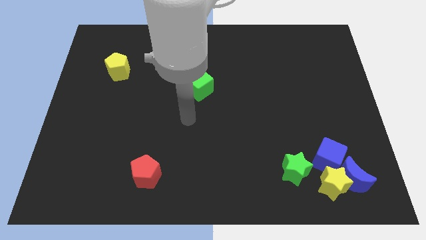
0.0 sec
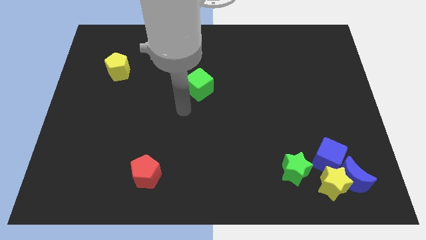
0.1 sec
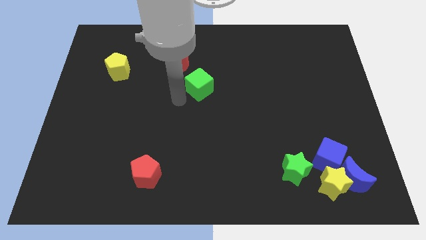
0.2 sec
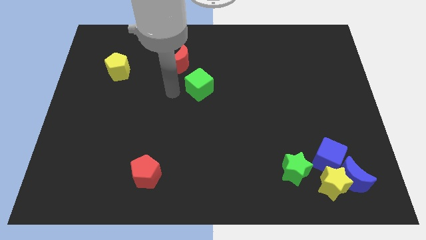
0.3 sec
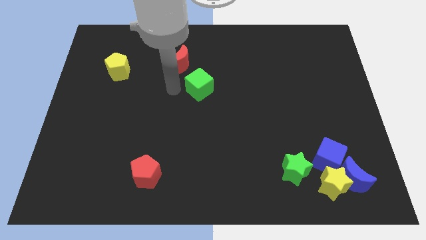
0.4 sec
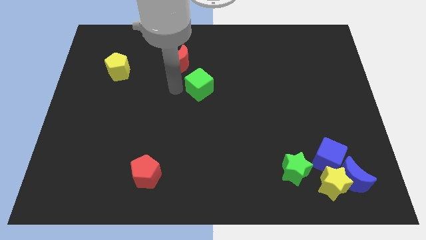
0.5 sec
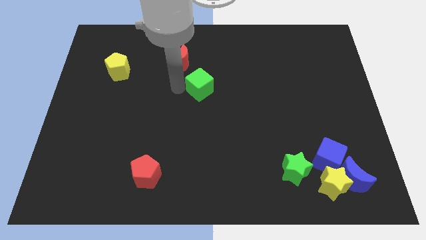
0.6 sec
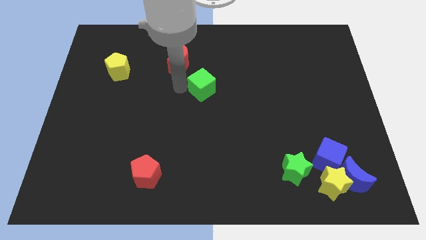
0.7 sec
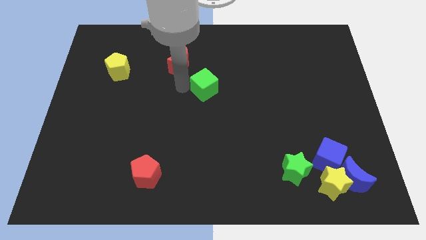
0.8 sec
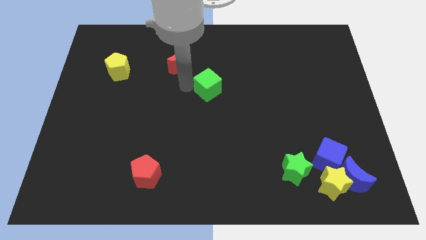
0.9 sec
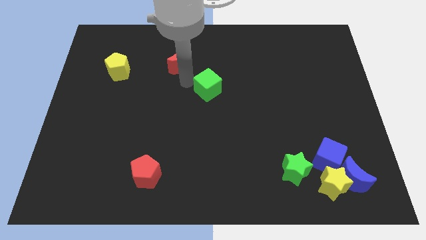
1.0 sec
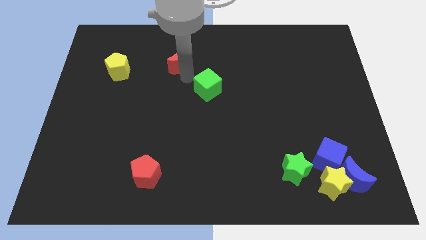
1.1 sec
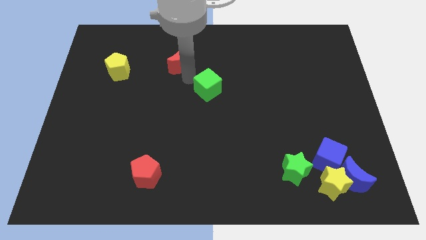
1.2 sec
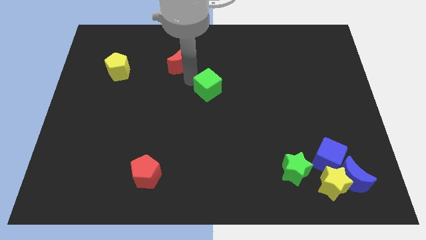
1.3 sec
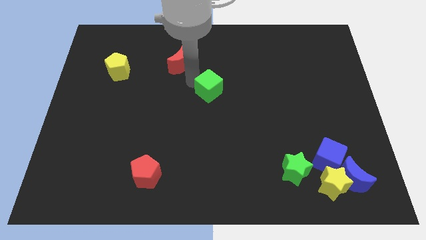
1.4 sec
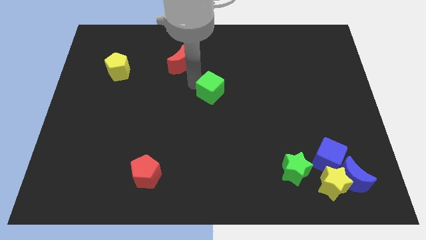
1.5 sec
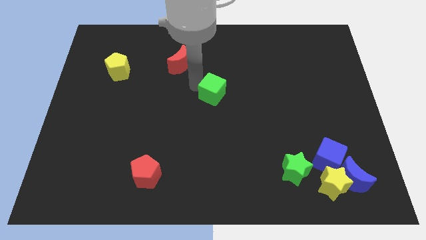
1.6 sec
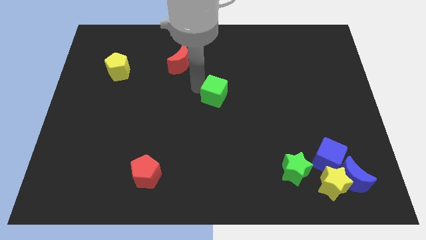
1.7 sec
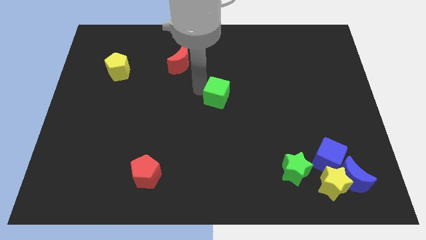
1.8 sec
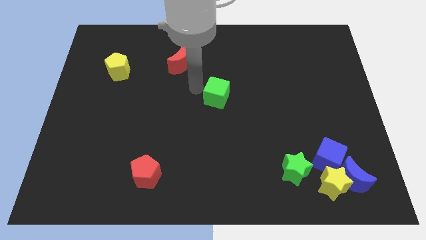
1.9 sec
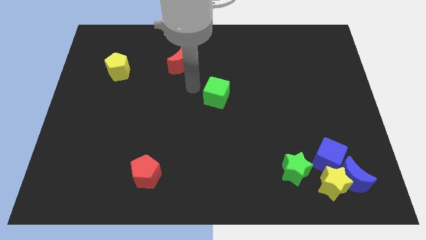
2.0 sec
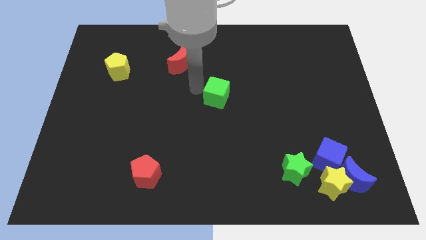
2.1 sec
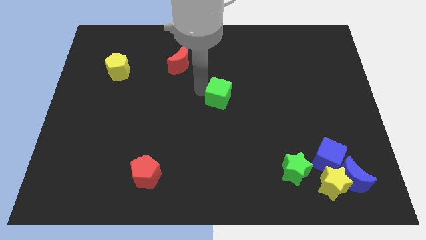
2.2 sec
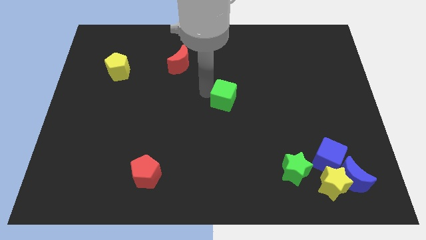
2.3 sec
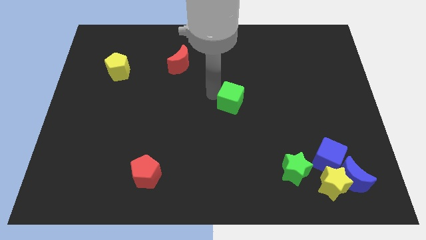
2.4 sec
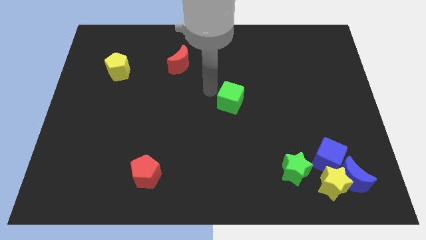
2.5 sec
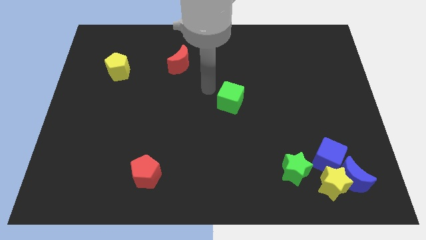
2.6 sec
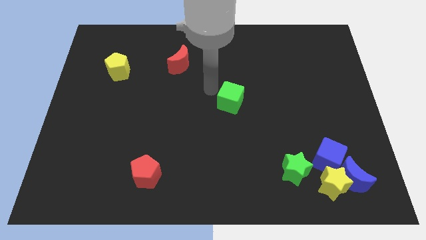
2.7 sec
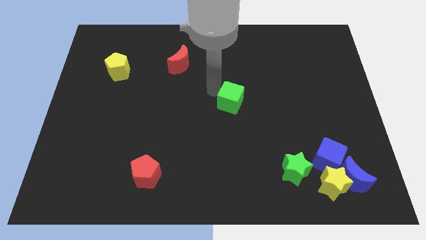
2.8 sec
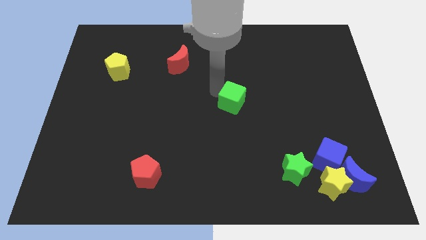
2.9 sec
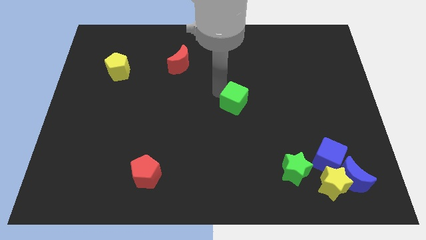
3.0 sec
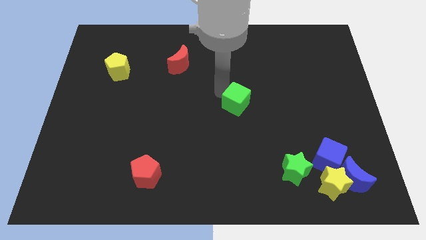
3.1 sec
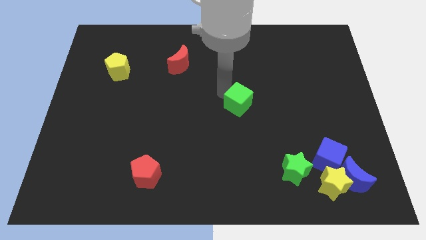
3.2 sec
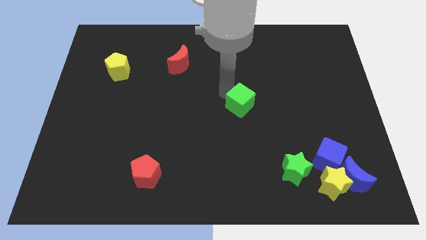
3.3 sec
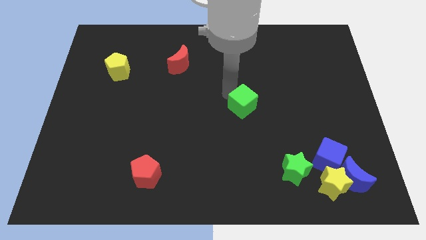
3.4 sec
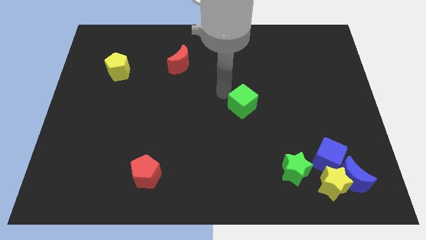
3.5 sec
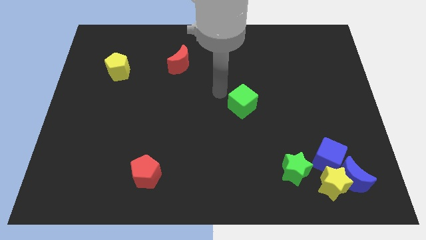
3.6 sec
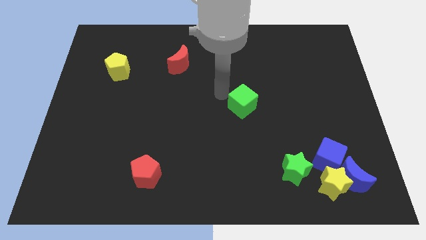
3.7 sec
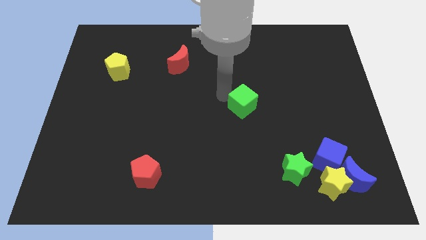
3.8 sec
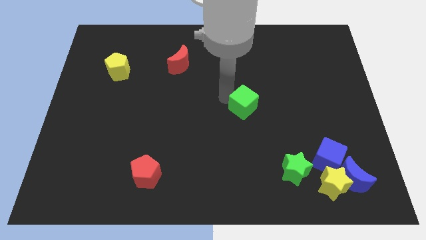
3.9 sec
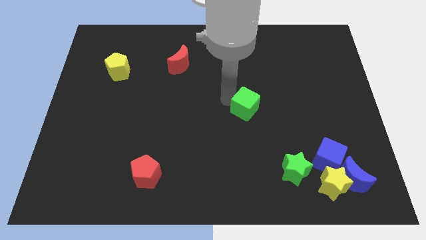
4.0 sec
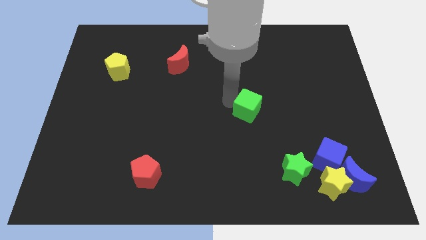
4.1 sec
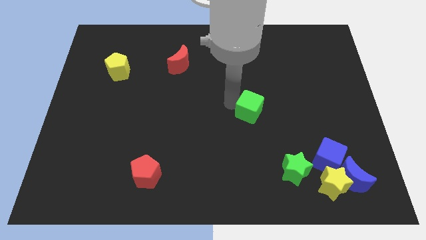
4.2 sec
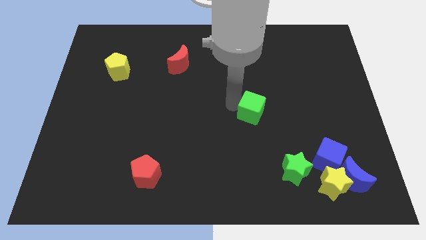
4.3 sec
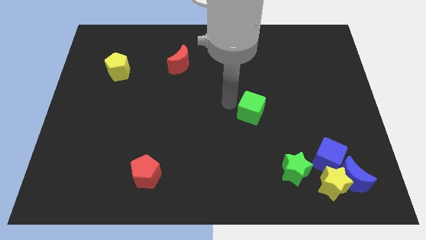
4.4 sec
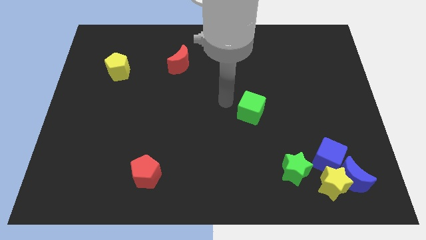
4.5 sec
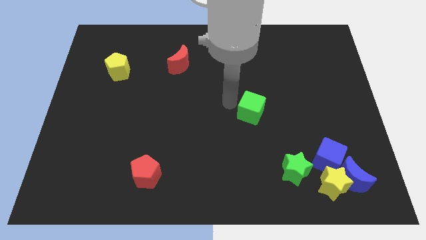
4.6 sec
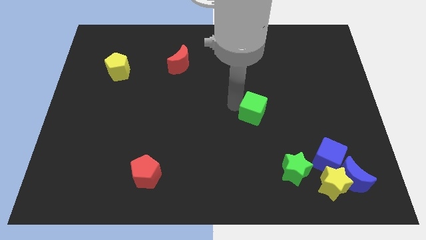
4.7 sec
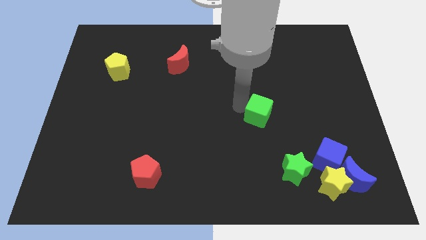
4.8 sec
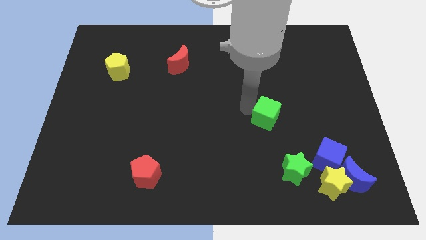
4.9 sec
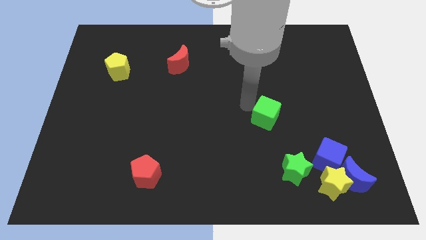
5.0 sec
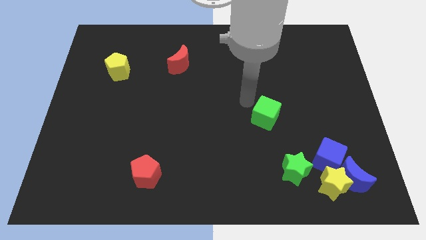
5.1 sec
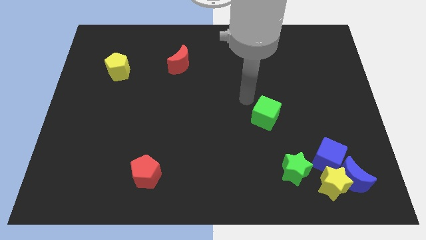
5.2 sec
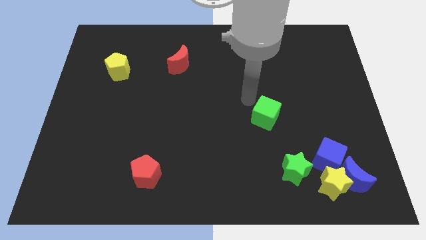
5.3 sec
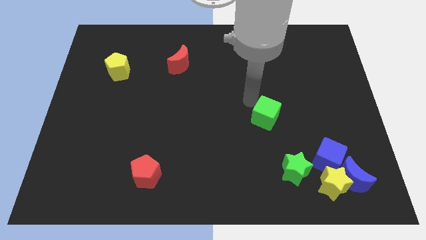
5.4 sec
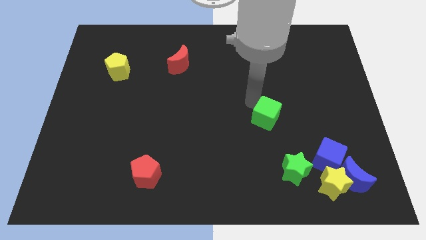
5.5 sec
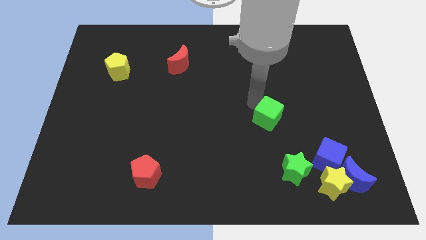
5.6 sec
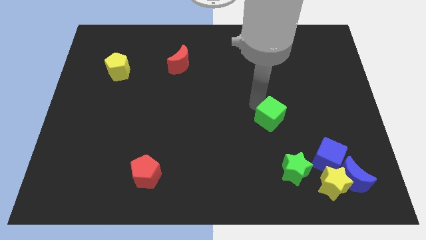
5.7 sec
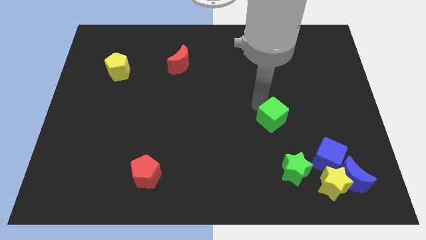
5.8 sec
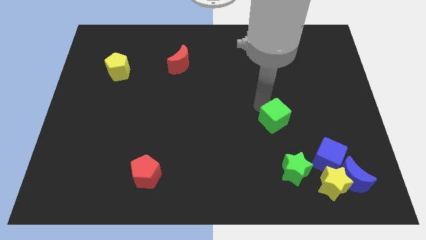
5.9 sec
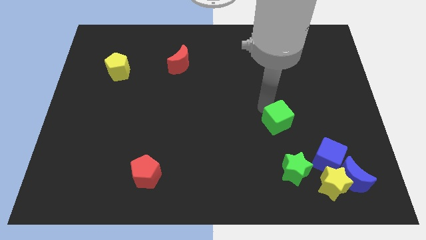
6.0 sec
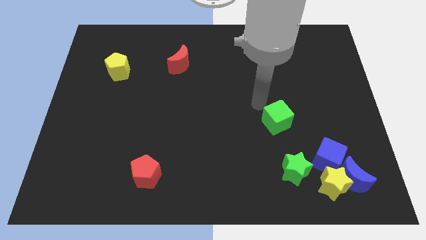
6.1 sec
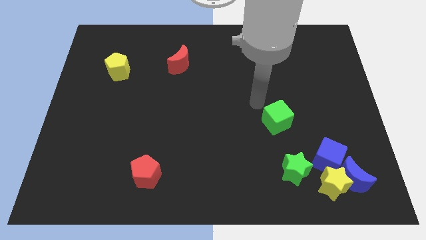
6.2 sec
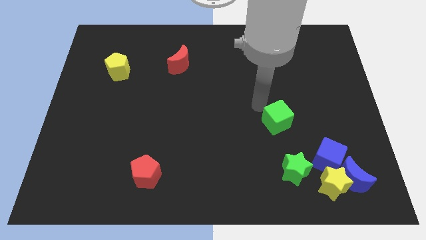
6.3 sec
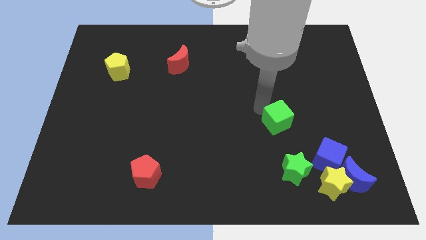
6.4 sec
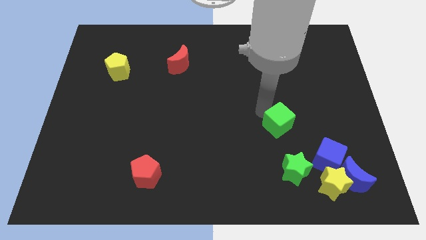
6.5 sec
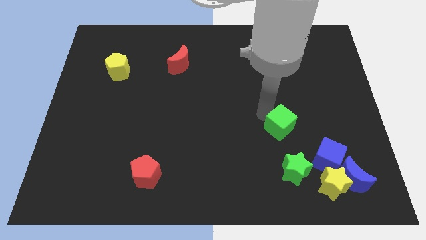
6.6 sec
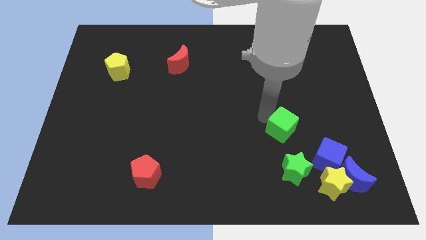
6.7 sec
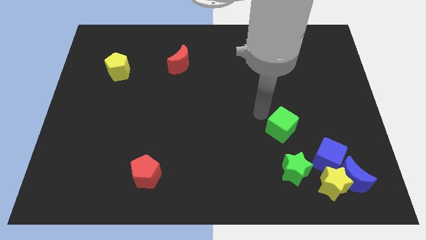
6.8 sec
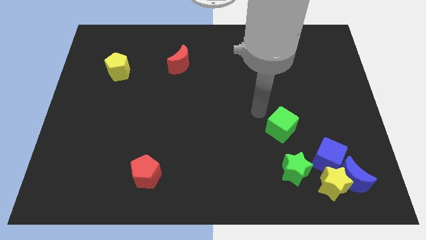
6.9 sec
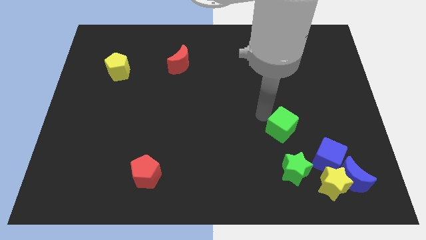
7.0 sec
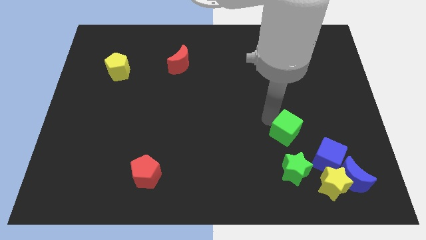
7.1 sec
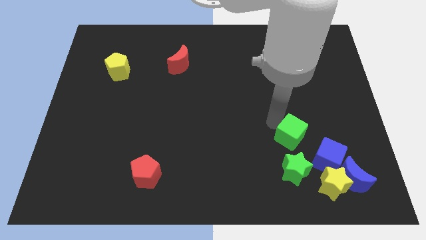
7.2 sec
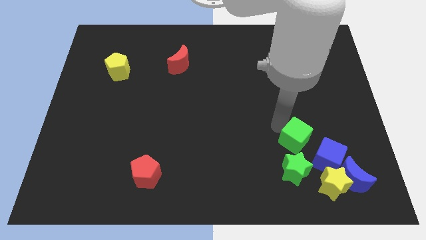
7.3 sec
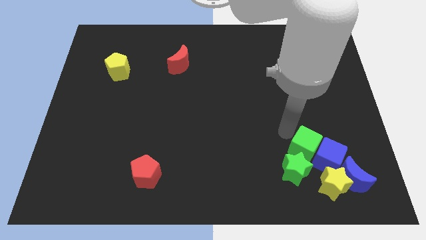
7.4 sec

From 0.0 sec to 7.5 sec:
push the green cube towards the blue cube
